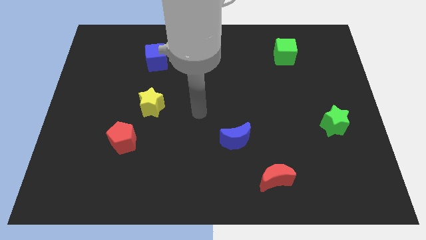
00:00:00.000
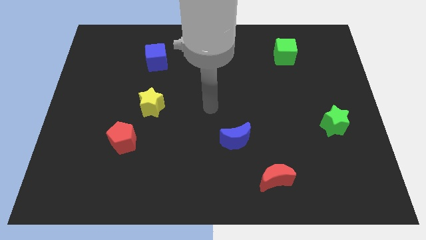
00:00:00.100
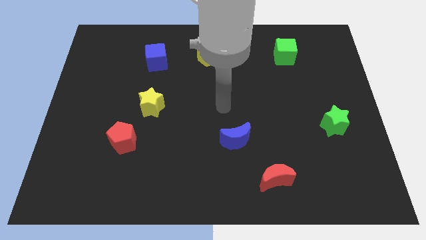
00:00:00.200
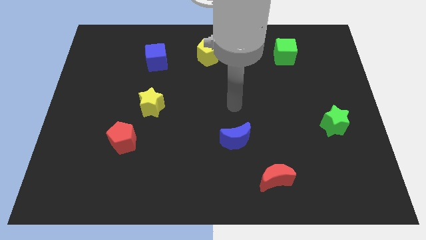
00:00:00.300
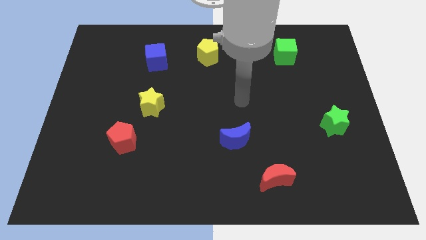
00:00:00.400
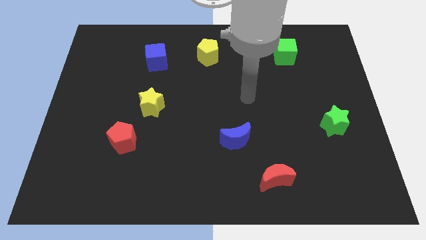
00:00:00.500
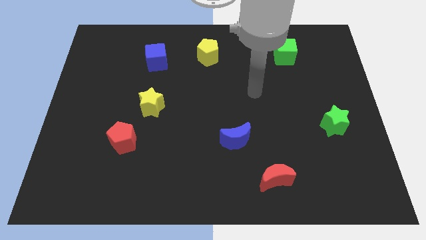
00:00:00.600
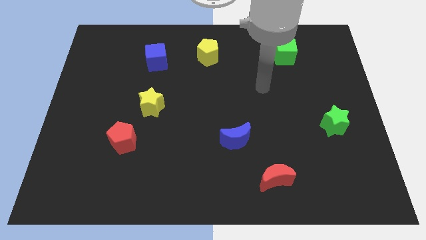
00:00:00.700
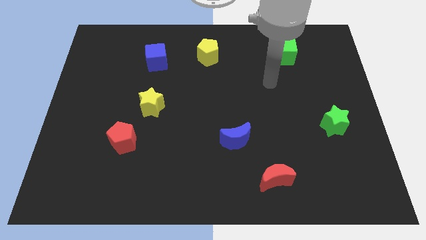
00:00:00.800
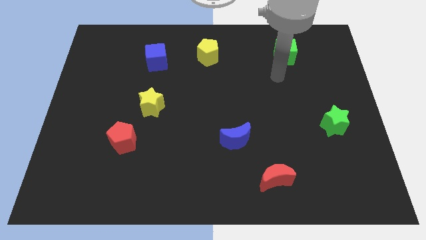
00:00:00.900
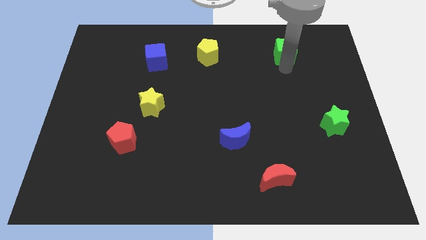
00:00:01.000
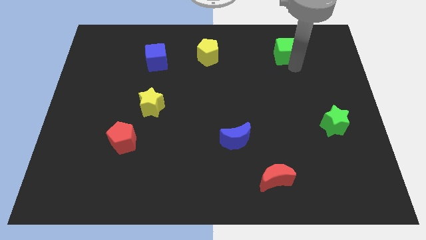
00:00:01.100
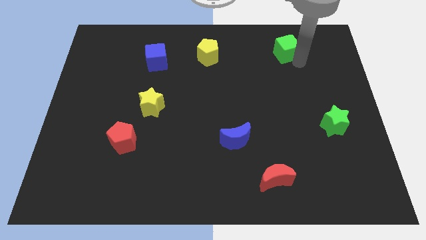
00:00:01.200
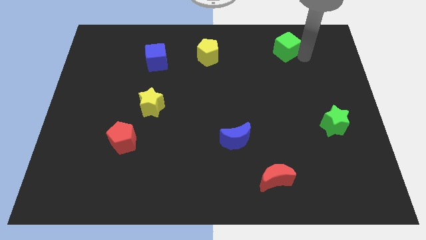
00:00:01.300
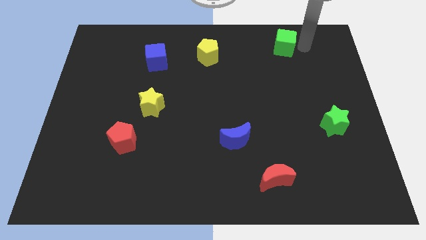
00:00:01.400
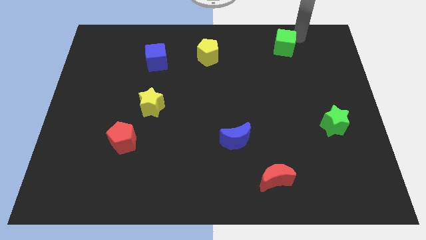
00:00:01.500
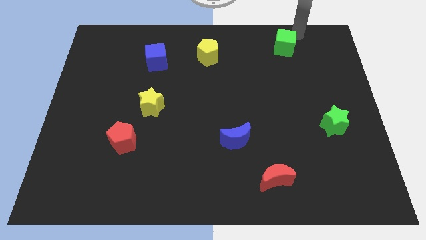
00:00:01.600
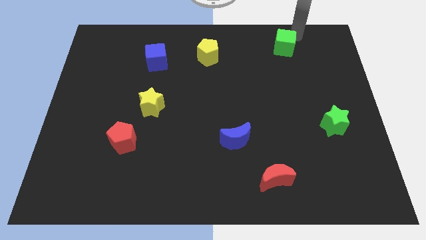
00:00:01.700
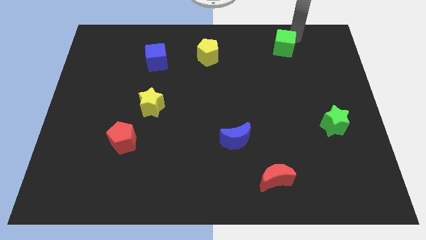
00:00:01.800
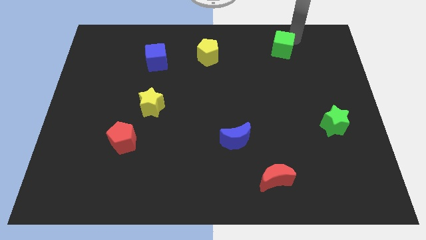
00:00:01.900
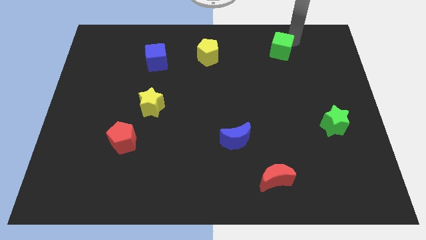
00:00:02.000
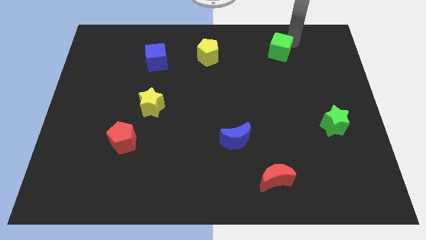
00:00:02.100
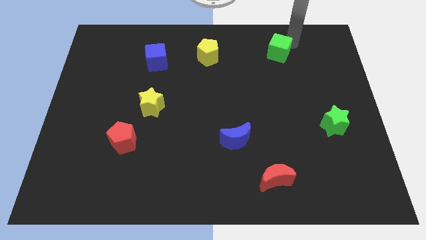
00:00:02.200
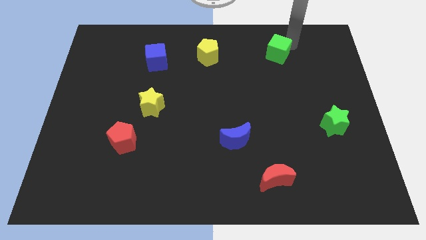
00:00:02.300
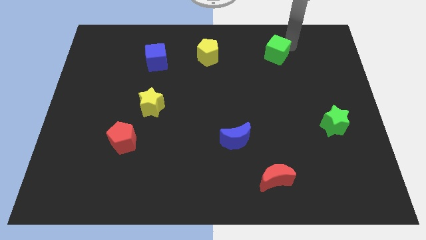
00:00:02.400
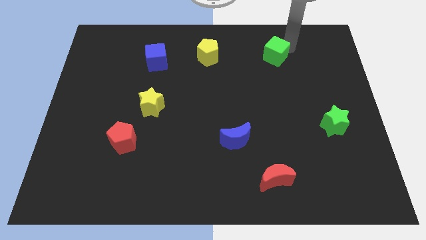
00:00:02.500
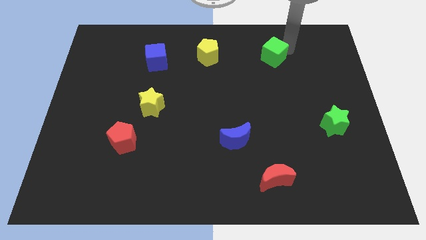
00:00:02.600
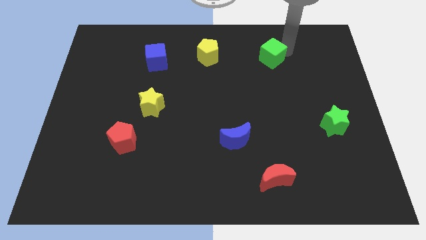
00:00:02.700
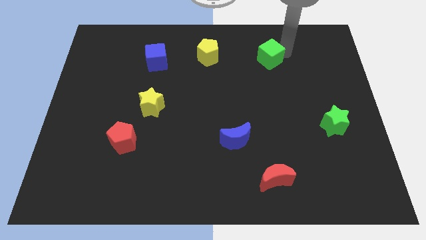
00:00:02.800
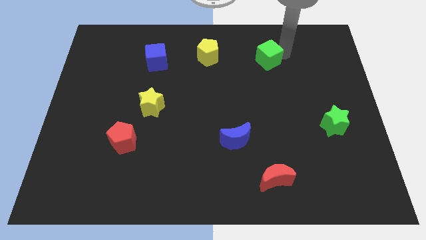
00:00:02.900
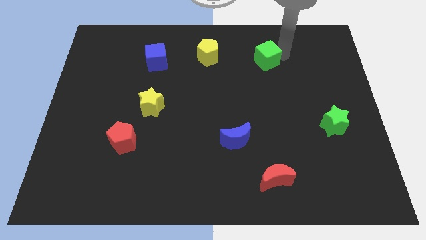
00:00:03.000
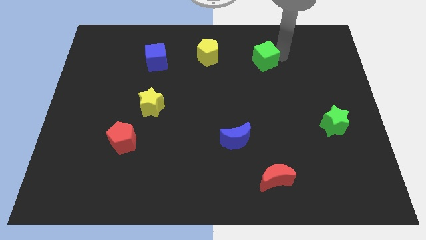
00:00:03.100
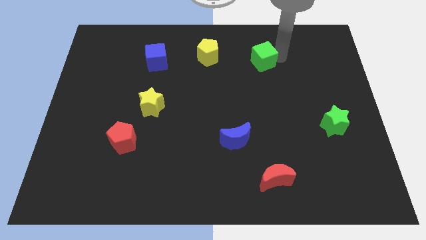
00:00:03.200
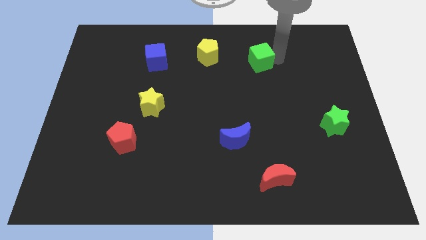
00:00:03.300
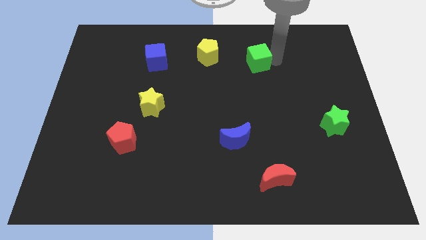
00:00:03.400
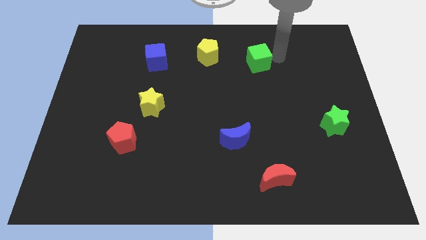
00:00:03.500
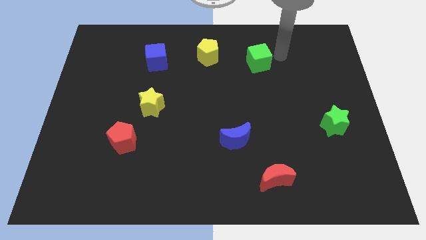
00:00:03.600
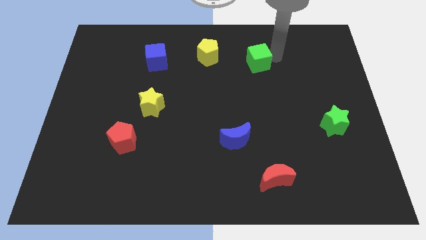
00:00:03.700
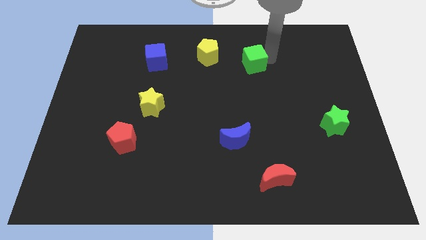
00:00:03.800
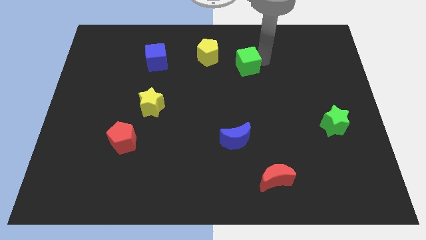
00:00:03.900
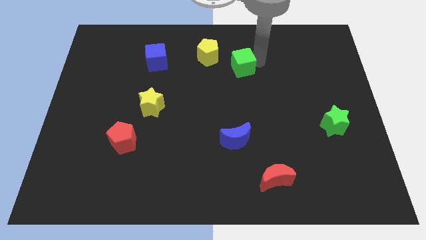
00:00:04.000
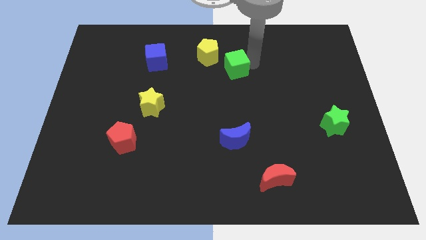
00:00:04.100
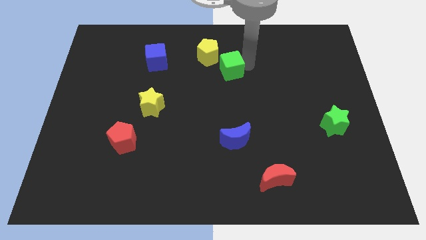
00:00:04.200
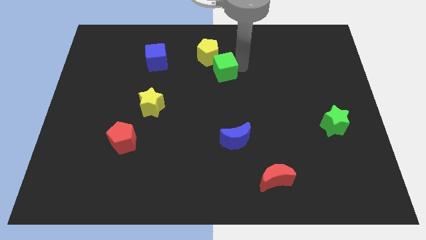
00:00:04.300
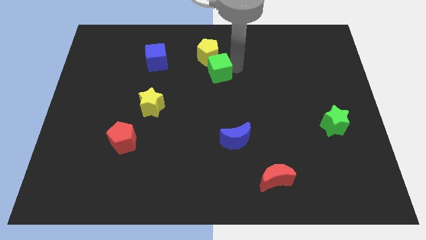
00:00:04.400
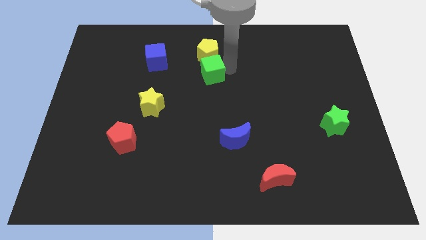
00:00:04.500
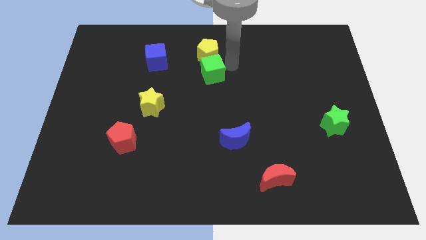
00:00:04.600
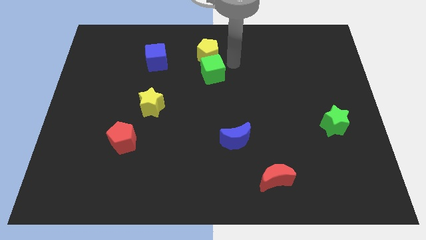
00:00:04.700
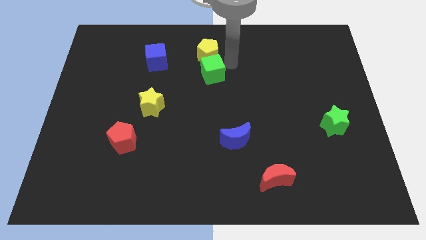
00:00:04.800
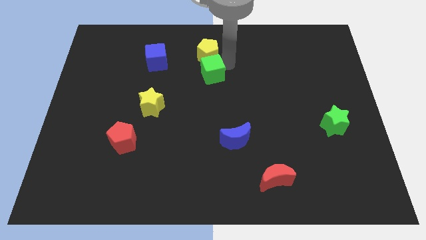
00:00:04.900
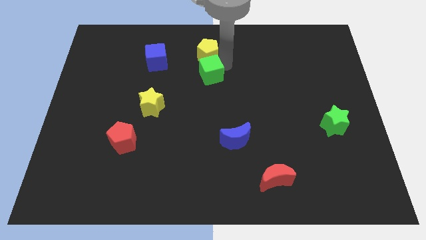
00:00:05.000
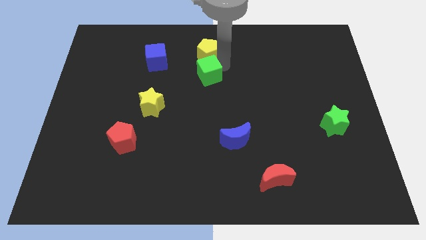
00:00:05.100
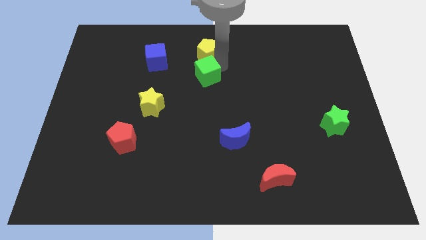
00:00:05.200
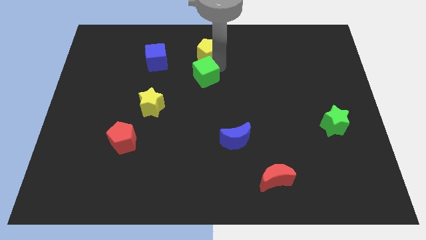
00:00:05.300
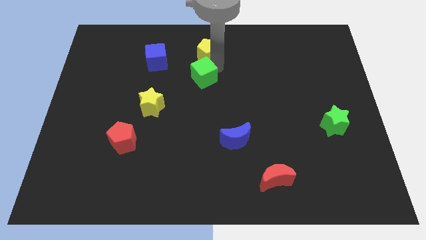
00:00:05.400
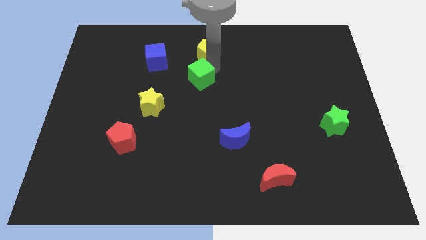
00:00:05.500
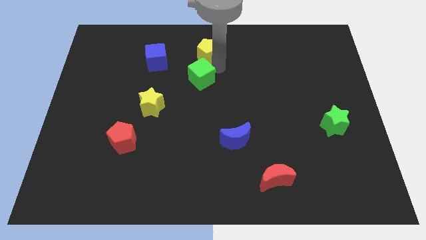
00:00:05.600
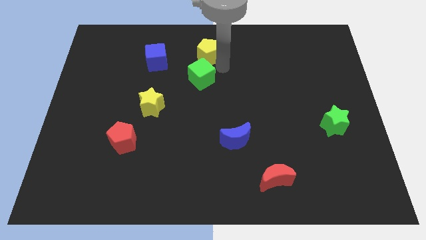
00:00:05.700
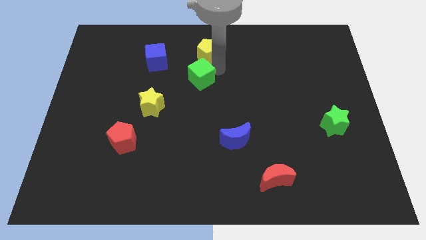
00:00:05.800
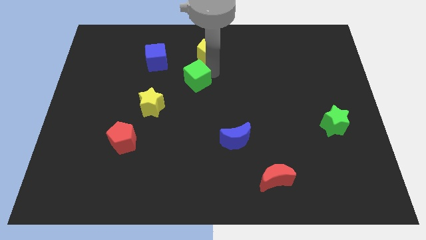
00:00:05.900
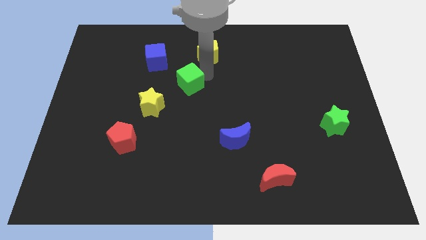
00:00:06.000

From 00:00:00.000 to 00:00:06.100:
push the green cube diagonally up and to the right of the yellow star

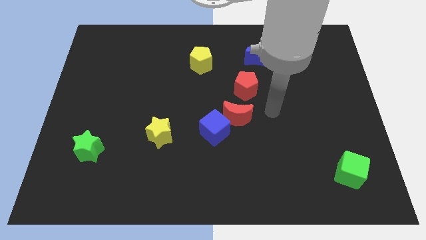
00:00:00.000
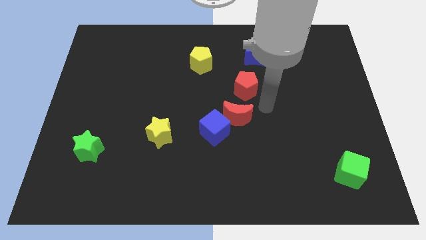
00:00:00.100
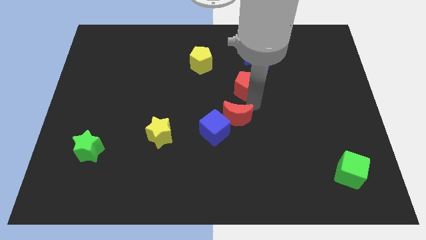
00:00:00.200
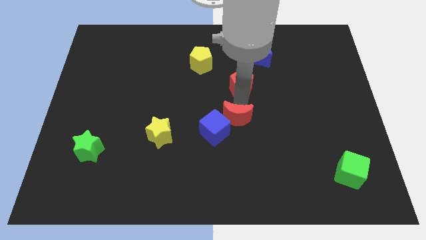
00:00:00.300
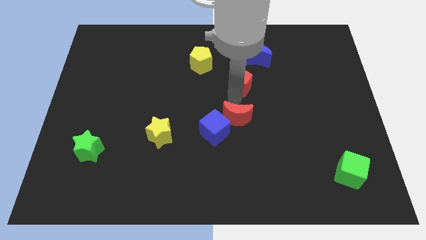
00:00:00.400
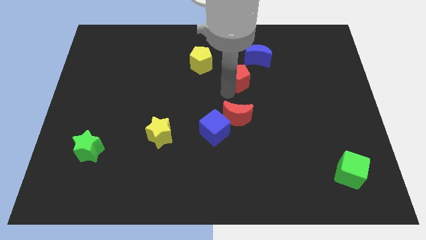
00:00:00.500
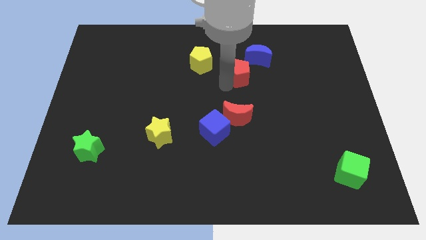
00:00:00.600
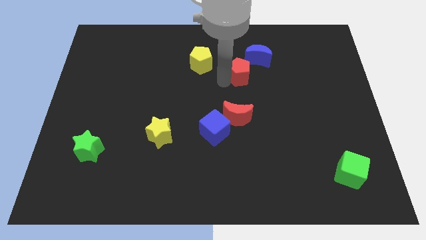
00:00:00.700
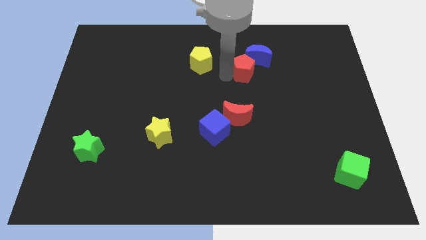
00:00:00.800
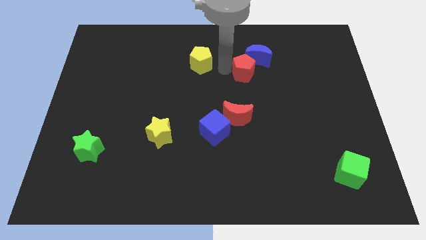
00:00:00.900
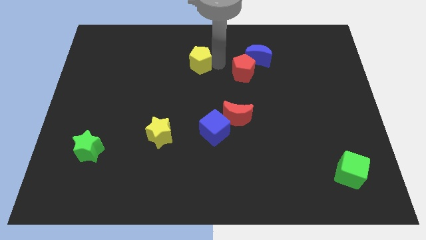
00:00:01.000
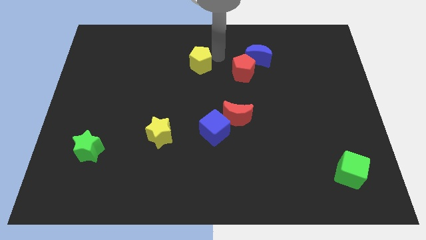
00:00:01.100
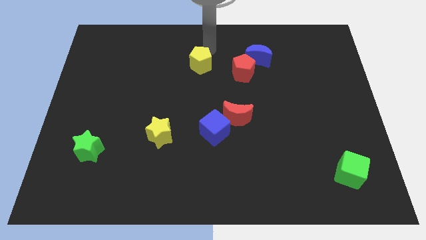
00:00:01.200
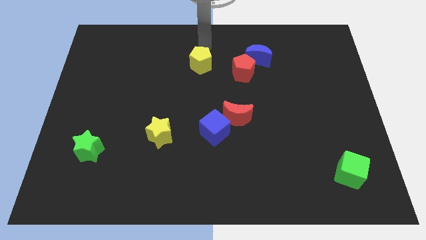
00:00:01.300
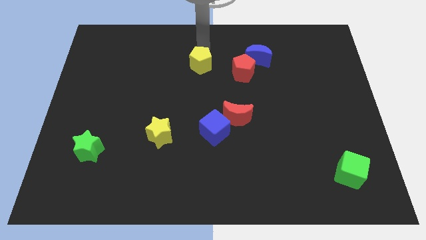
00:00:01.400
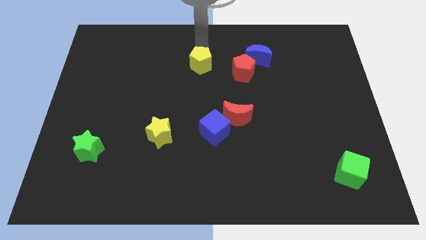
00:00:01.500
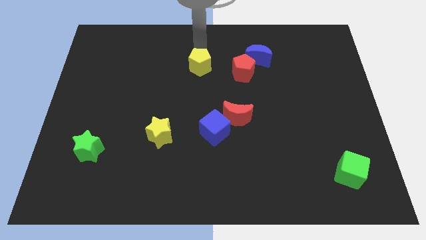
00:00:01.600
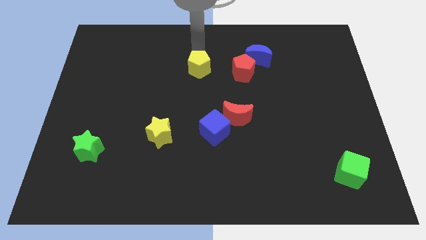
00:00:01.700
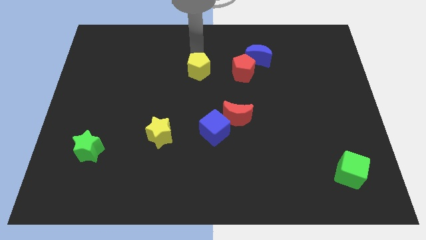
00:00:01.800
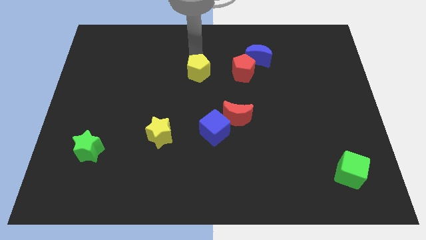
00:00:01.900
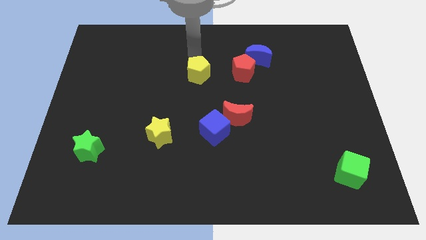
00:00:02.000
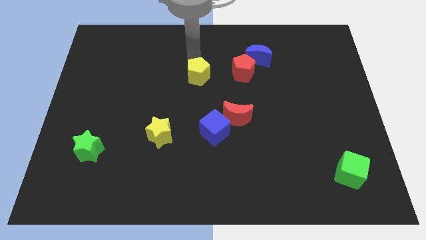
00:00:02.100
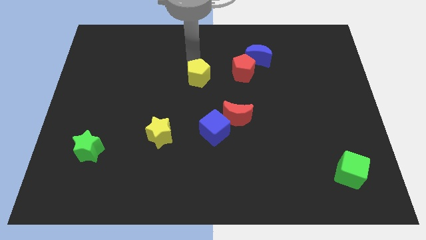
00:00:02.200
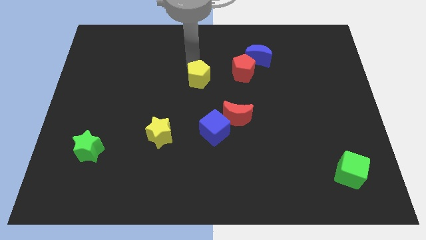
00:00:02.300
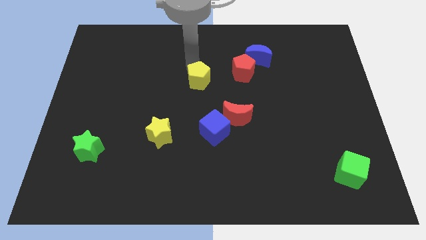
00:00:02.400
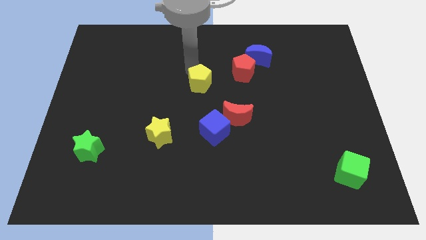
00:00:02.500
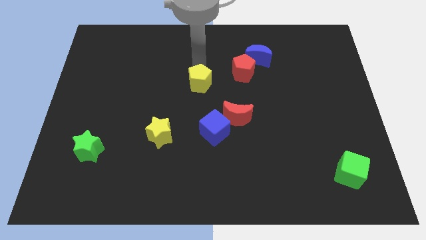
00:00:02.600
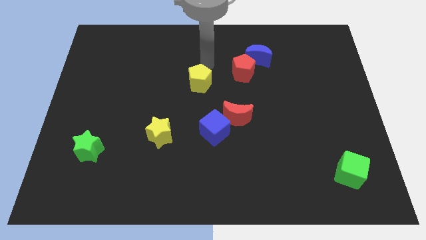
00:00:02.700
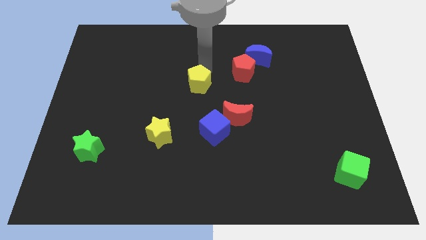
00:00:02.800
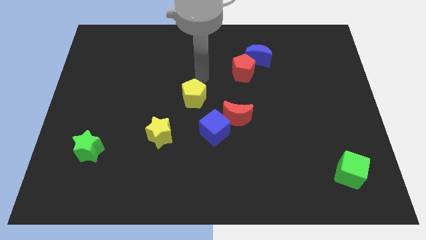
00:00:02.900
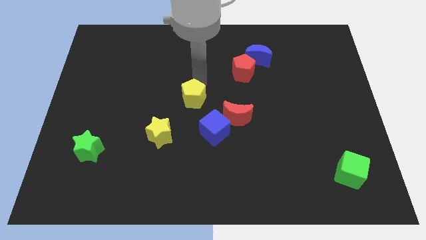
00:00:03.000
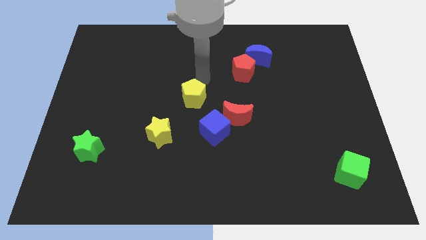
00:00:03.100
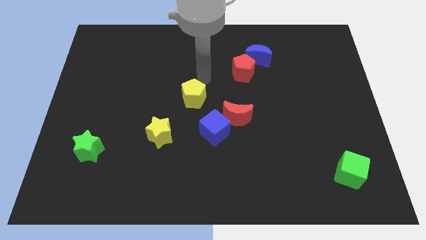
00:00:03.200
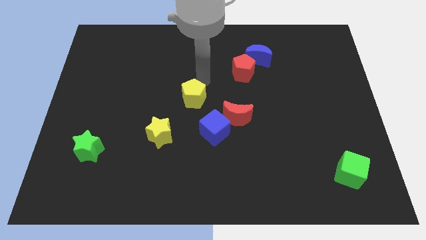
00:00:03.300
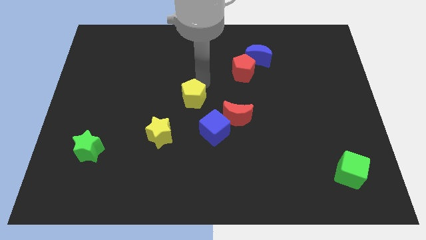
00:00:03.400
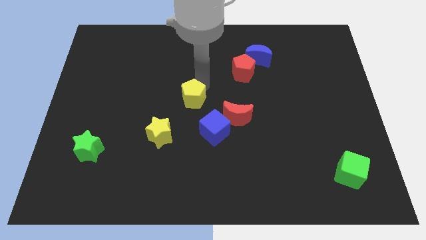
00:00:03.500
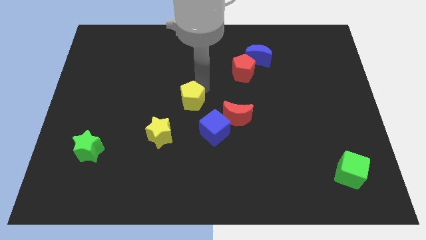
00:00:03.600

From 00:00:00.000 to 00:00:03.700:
move the yellow pentagon diagonally up and to the right of the yellow star
